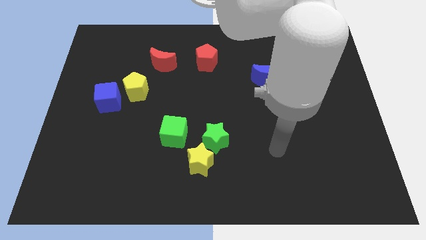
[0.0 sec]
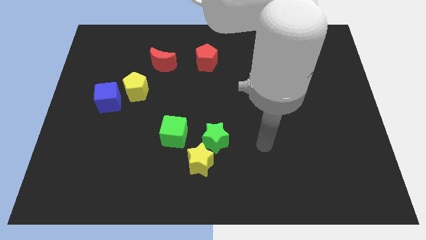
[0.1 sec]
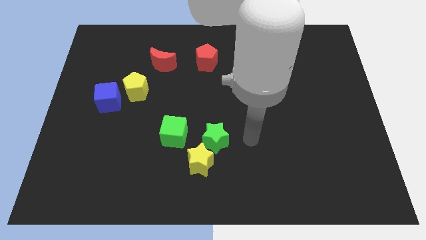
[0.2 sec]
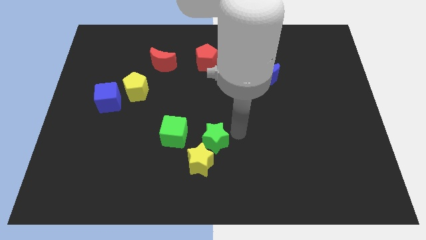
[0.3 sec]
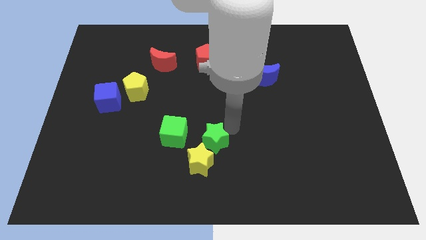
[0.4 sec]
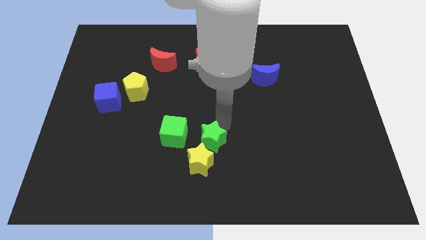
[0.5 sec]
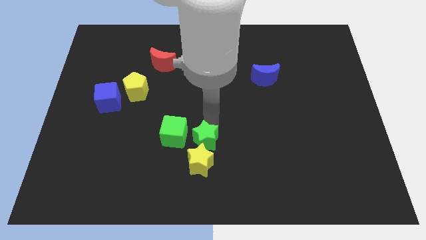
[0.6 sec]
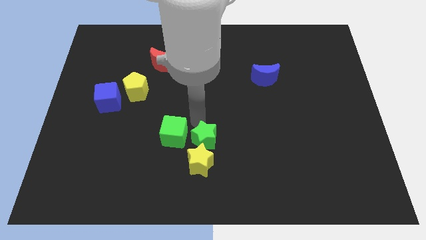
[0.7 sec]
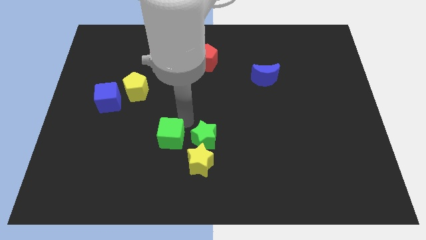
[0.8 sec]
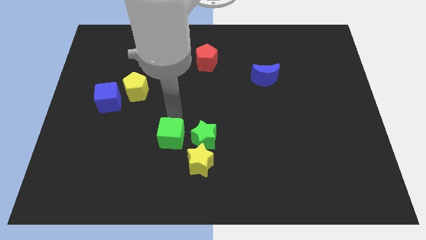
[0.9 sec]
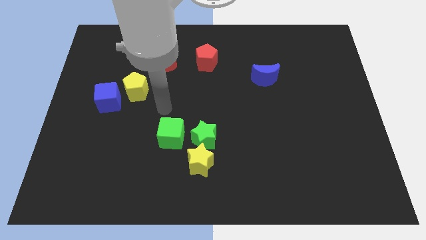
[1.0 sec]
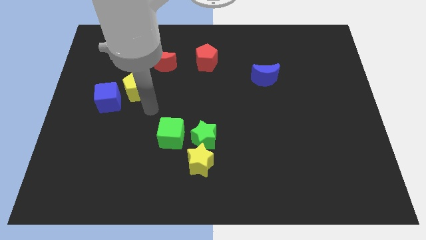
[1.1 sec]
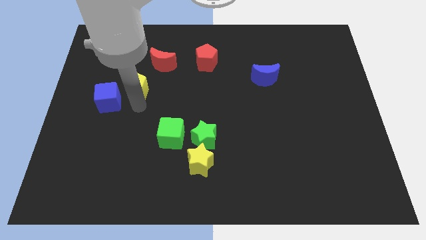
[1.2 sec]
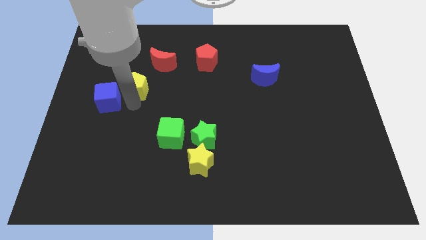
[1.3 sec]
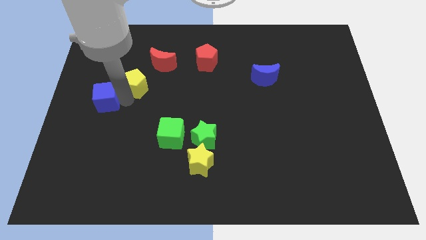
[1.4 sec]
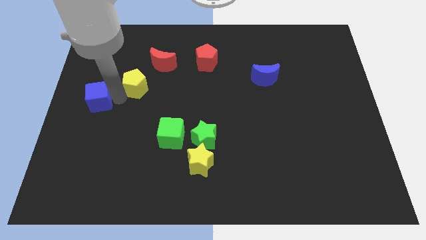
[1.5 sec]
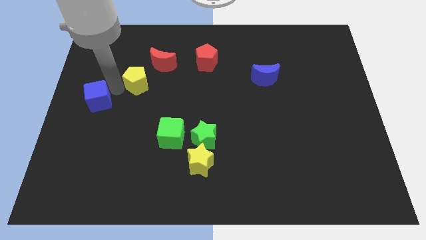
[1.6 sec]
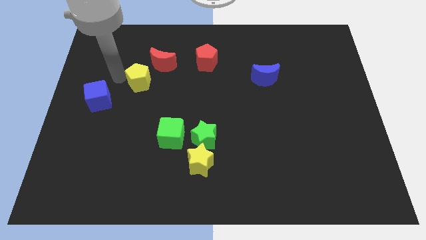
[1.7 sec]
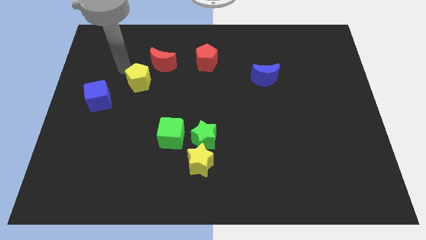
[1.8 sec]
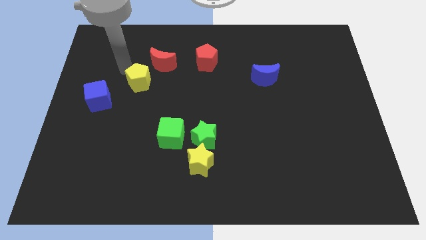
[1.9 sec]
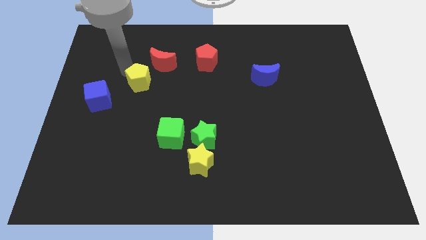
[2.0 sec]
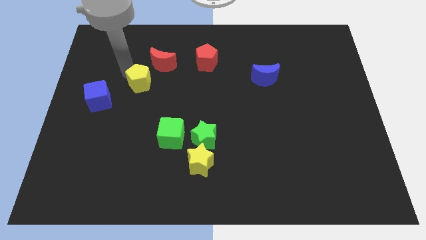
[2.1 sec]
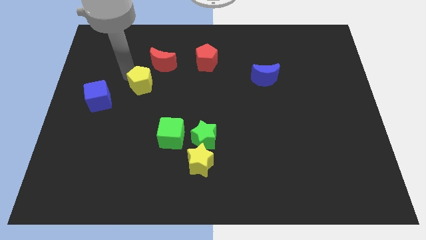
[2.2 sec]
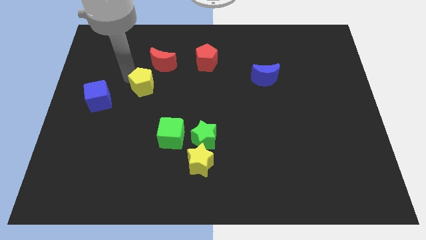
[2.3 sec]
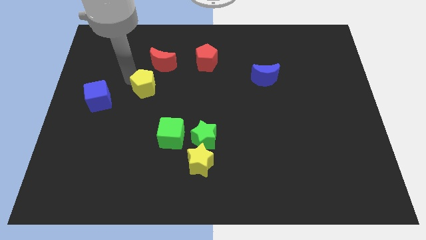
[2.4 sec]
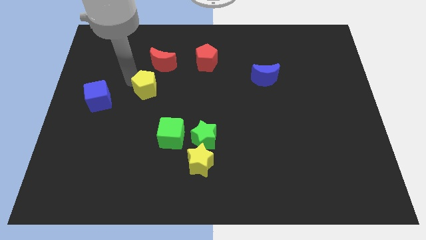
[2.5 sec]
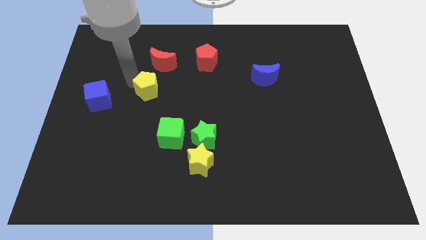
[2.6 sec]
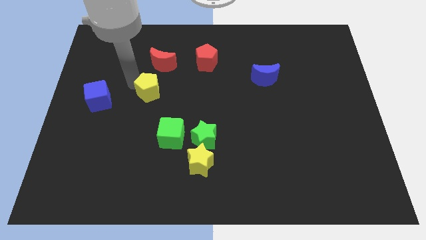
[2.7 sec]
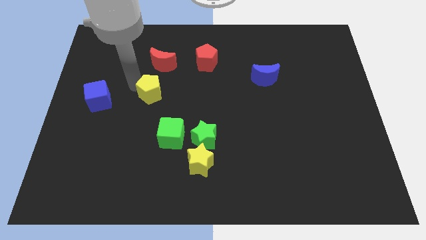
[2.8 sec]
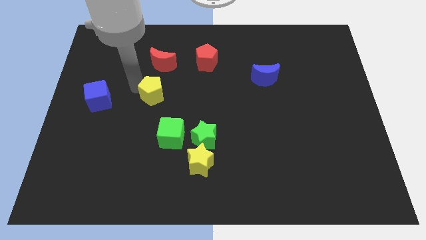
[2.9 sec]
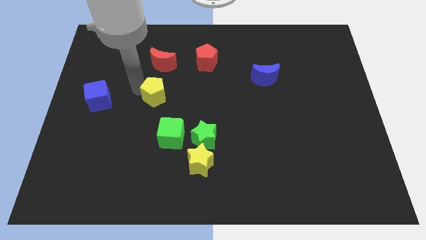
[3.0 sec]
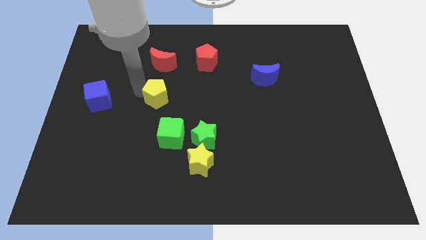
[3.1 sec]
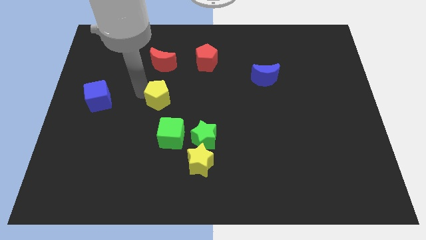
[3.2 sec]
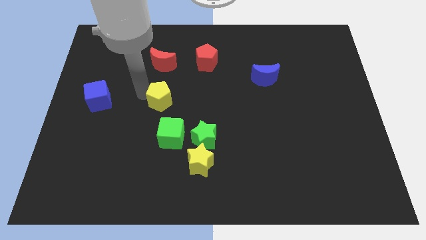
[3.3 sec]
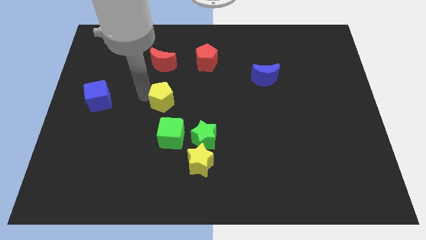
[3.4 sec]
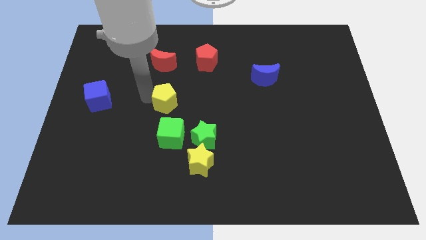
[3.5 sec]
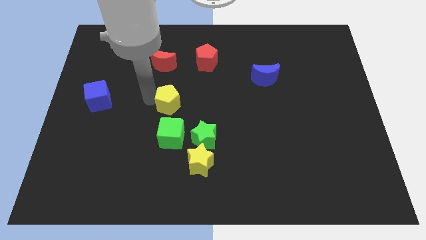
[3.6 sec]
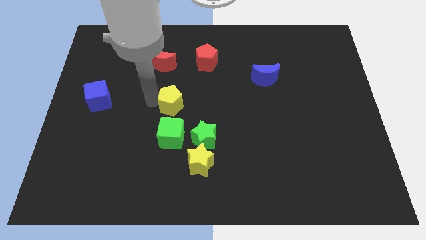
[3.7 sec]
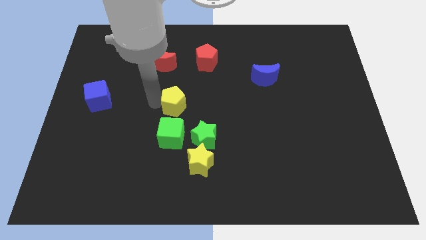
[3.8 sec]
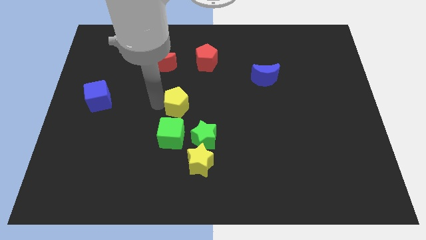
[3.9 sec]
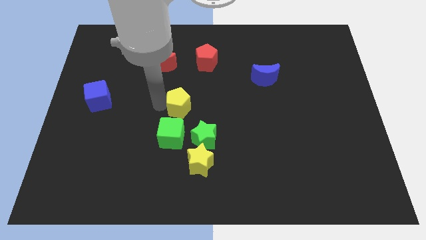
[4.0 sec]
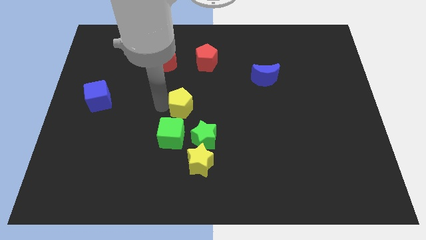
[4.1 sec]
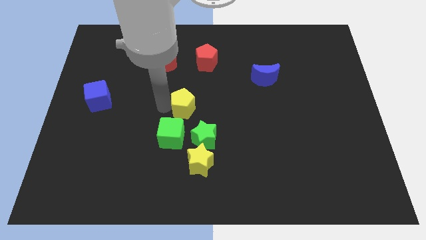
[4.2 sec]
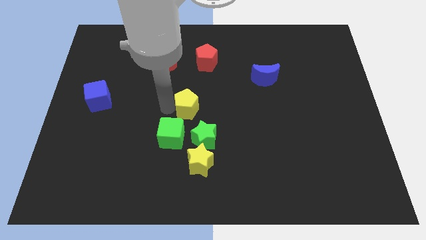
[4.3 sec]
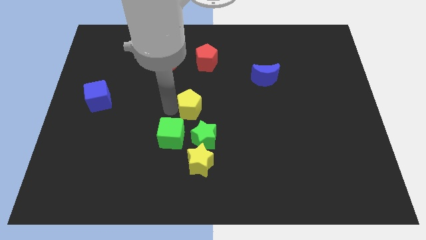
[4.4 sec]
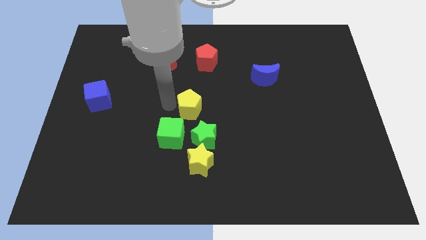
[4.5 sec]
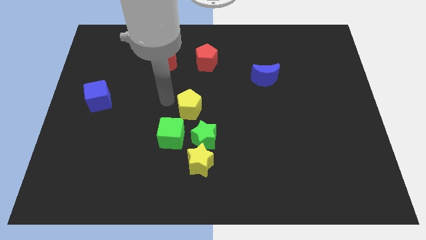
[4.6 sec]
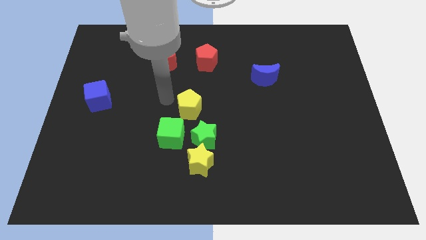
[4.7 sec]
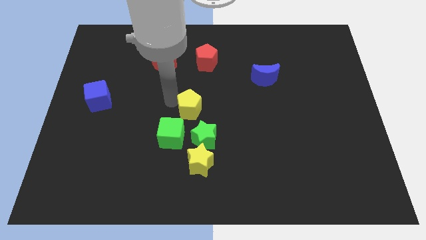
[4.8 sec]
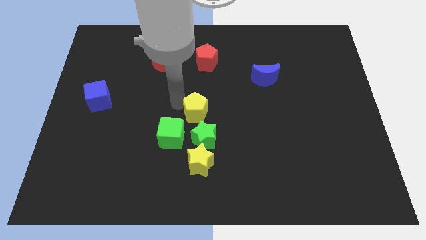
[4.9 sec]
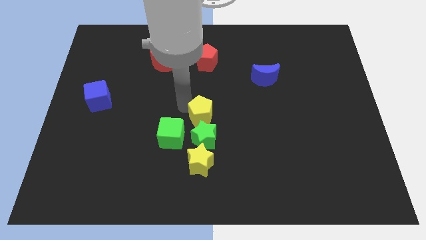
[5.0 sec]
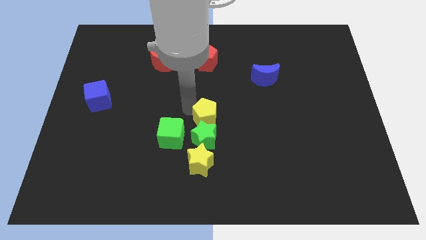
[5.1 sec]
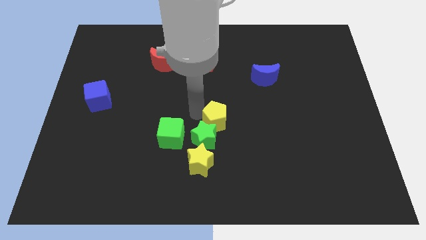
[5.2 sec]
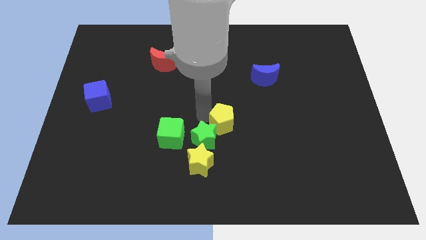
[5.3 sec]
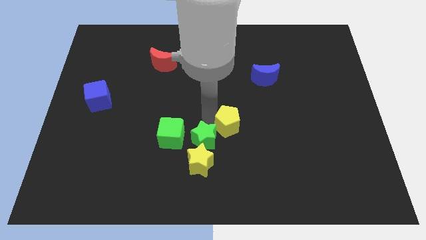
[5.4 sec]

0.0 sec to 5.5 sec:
move the yellow pentagon down and right diagonally

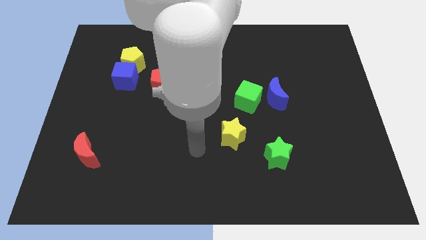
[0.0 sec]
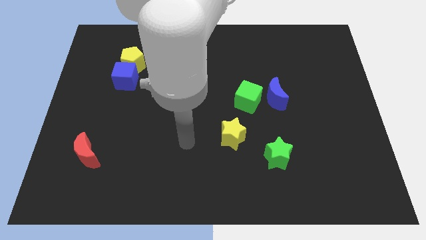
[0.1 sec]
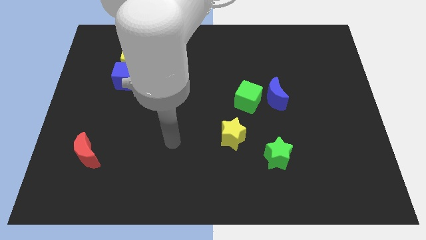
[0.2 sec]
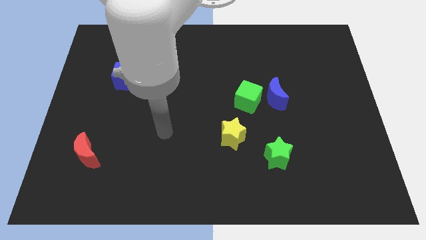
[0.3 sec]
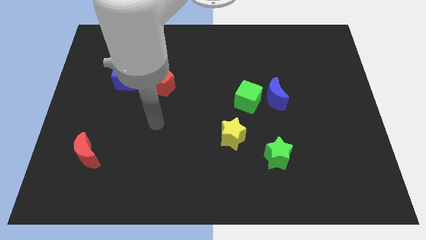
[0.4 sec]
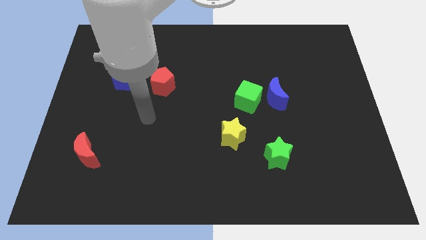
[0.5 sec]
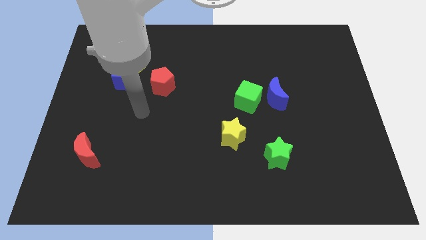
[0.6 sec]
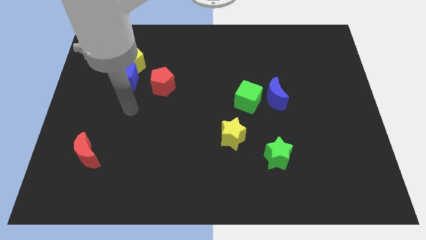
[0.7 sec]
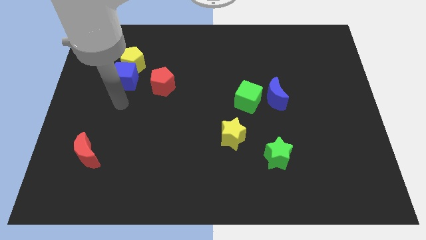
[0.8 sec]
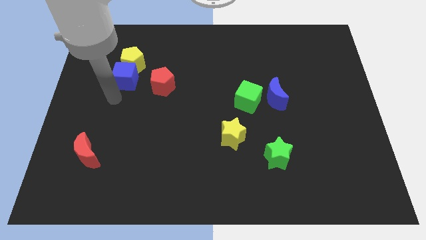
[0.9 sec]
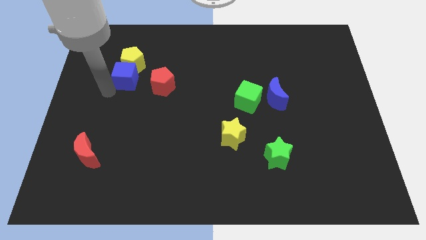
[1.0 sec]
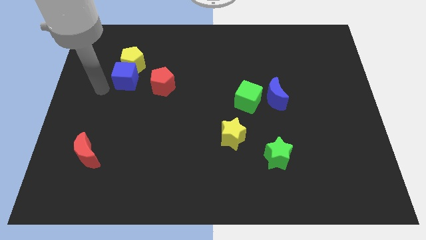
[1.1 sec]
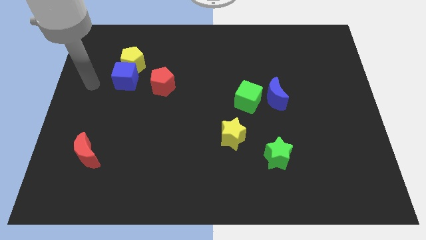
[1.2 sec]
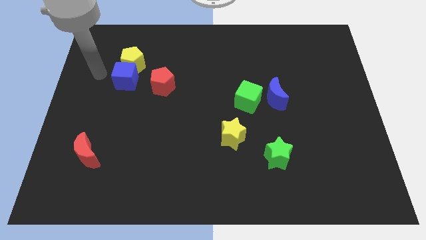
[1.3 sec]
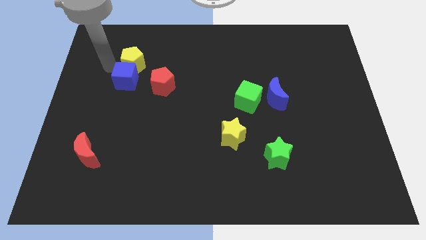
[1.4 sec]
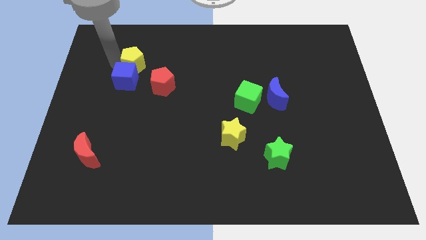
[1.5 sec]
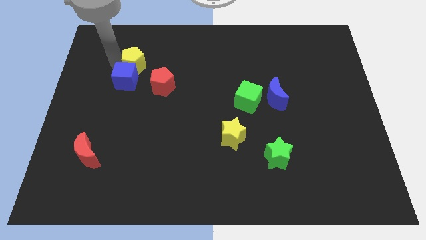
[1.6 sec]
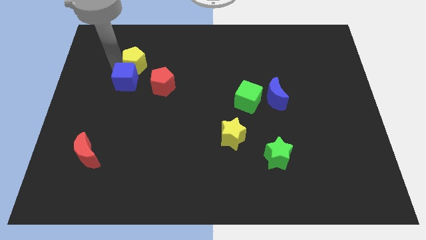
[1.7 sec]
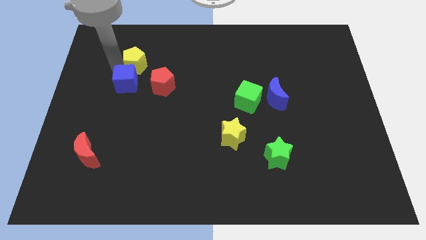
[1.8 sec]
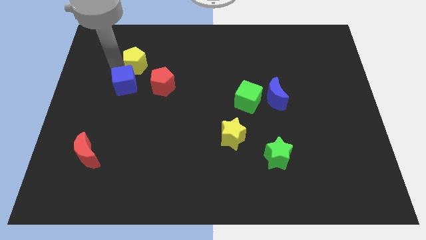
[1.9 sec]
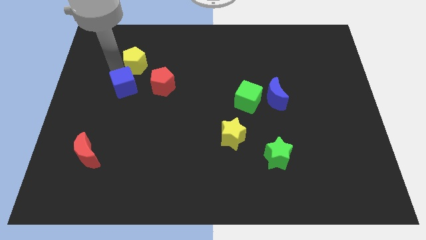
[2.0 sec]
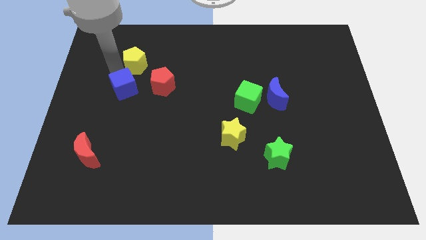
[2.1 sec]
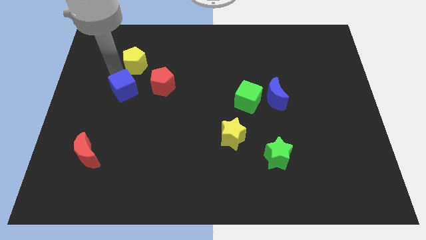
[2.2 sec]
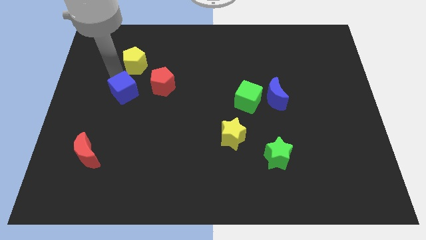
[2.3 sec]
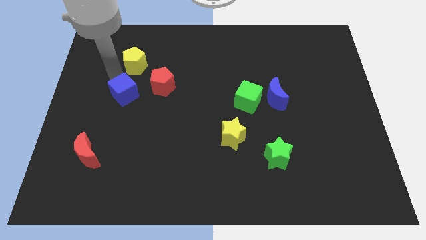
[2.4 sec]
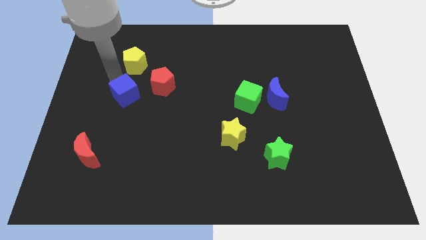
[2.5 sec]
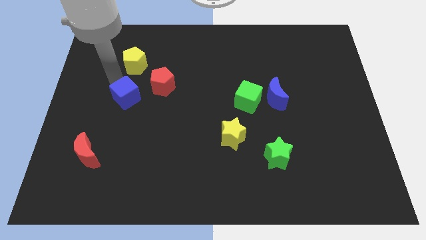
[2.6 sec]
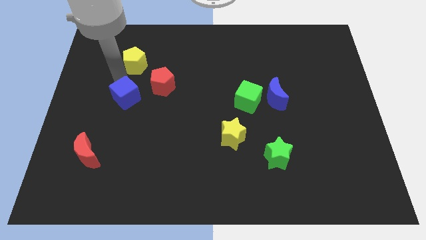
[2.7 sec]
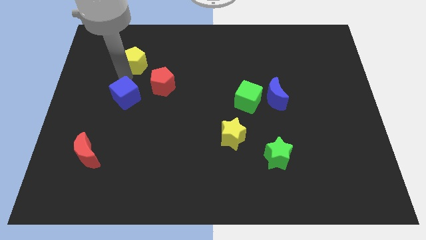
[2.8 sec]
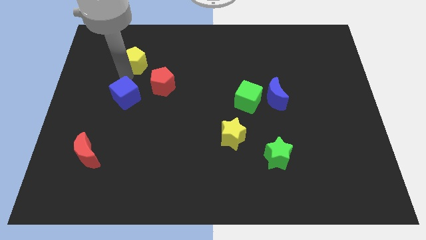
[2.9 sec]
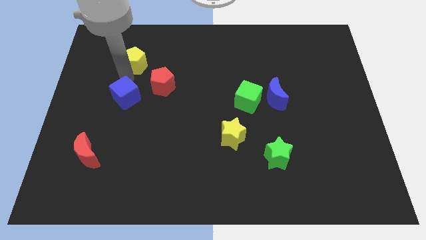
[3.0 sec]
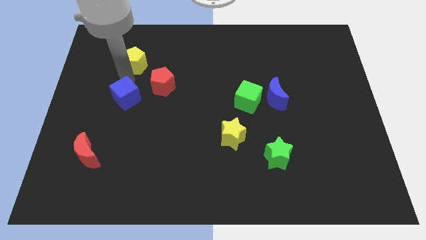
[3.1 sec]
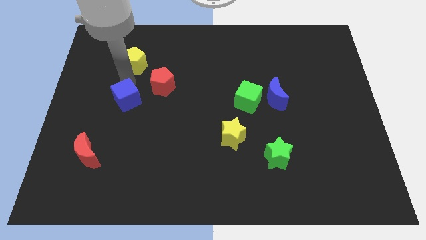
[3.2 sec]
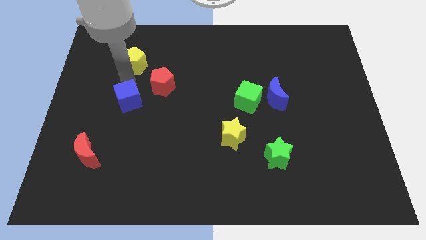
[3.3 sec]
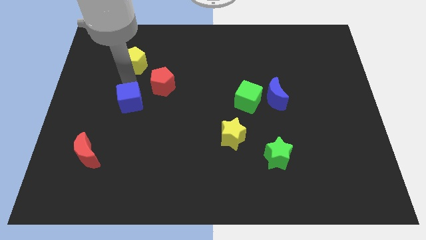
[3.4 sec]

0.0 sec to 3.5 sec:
move the blue cube down a little bit
